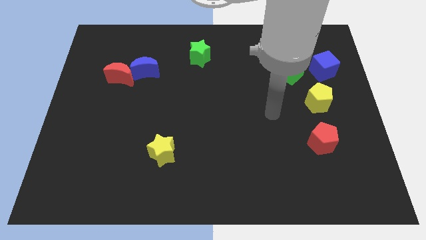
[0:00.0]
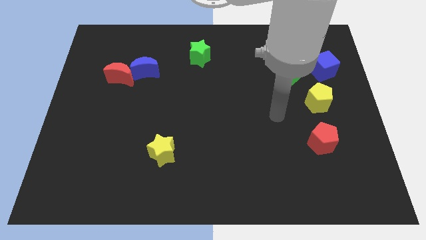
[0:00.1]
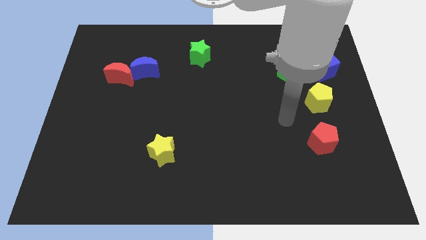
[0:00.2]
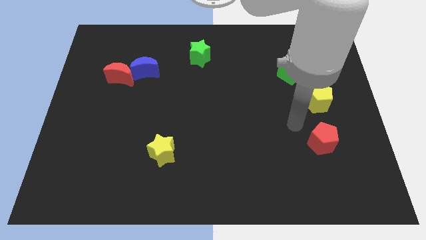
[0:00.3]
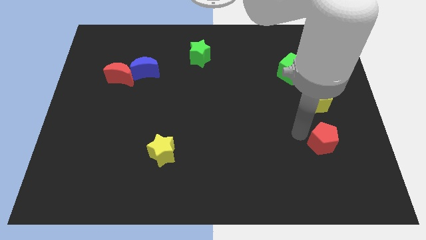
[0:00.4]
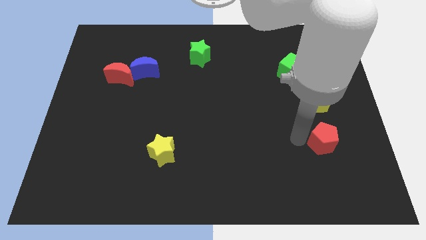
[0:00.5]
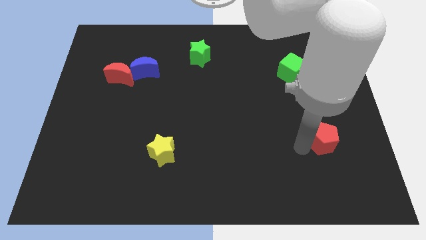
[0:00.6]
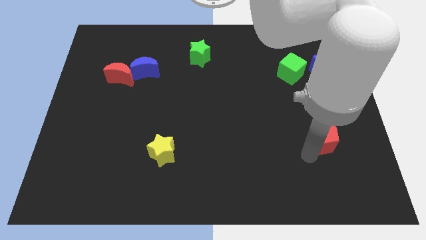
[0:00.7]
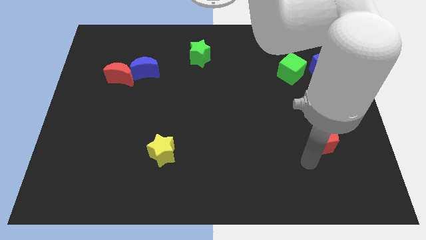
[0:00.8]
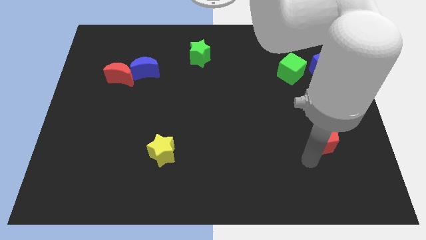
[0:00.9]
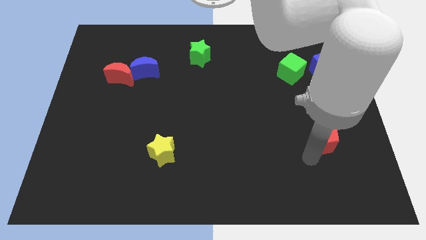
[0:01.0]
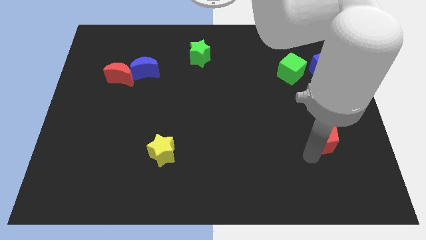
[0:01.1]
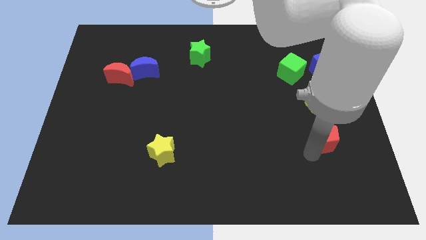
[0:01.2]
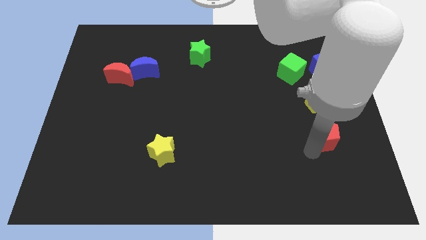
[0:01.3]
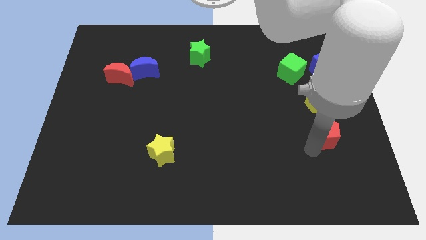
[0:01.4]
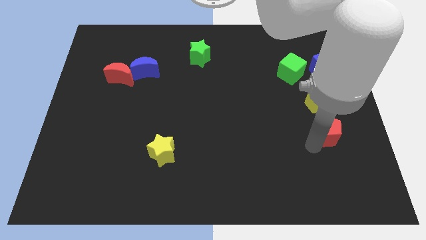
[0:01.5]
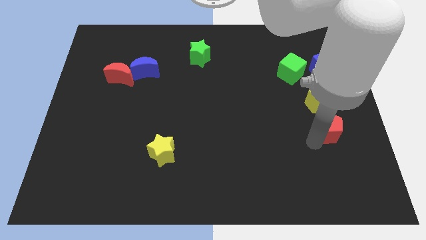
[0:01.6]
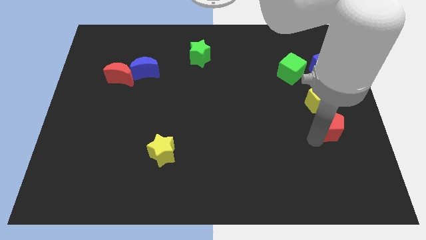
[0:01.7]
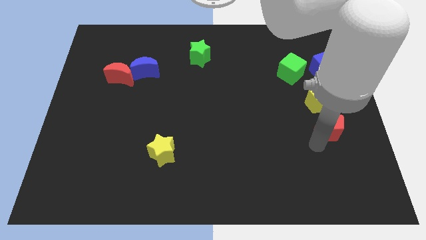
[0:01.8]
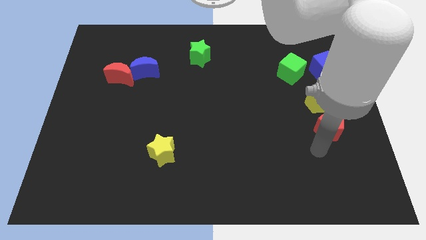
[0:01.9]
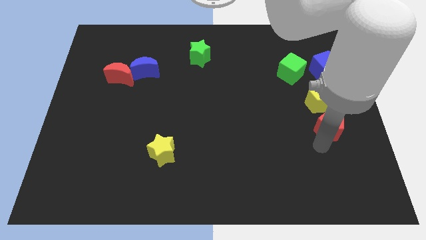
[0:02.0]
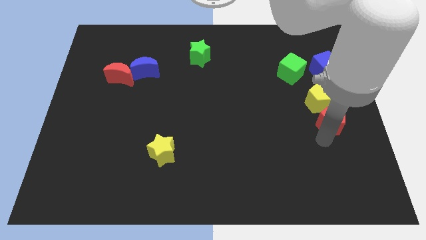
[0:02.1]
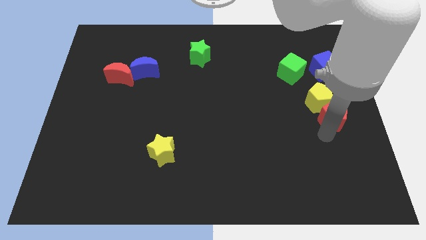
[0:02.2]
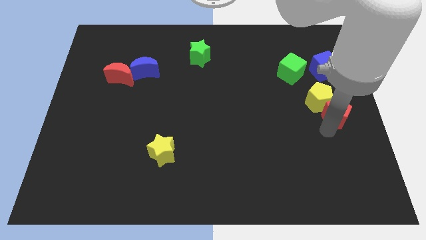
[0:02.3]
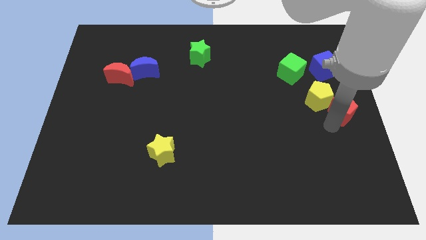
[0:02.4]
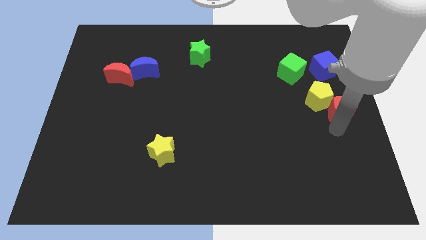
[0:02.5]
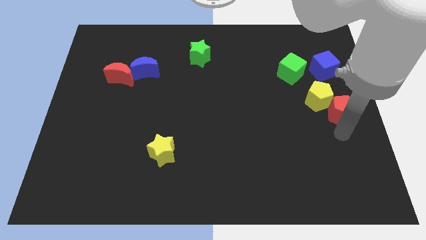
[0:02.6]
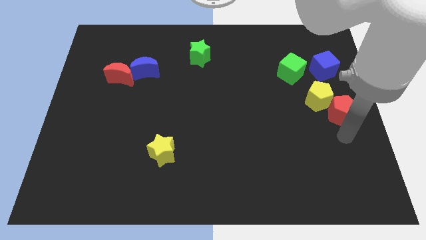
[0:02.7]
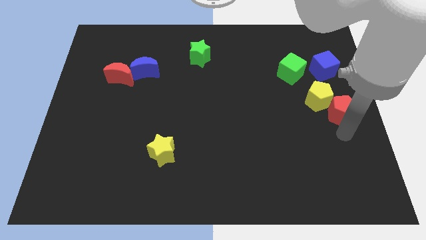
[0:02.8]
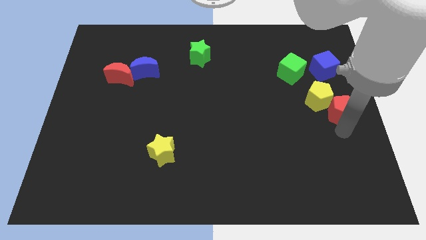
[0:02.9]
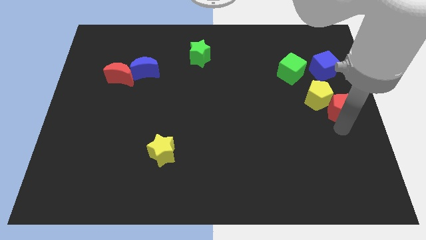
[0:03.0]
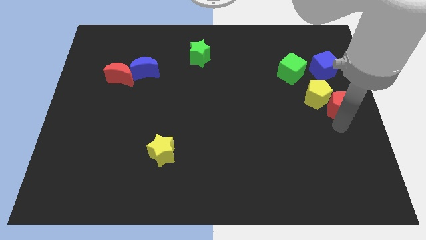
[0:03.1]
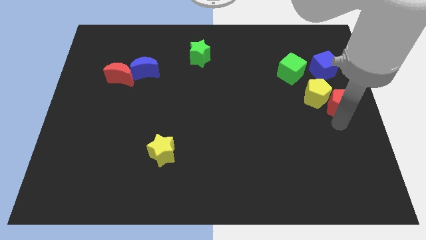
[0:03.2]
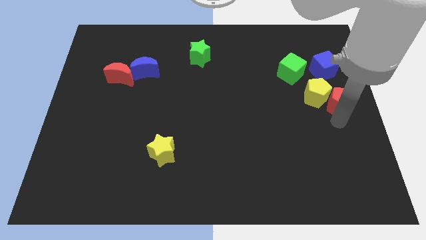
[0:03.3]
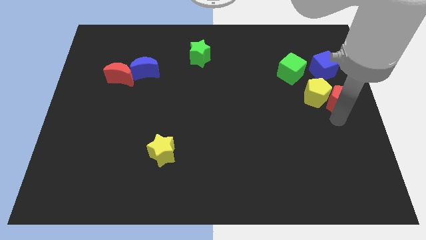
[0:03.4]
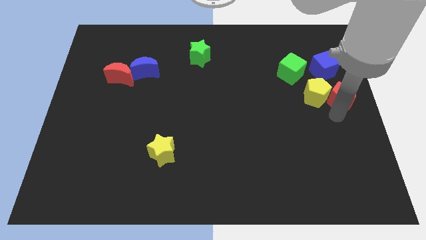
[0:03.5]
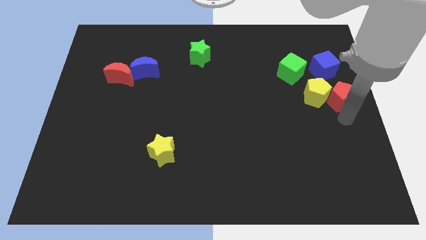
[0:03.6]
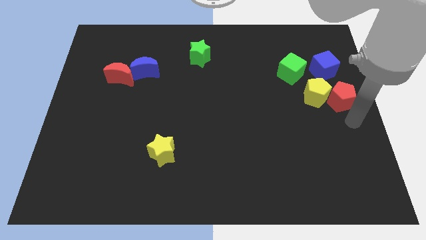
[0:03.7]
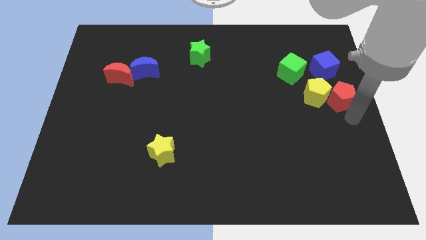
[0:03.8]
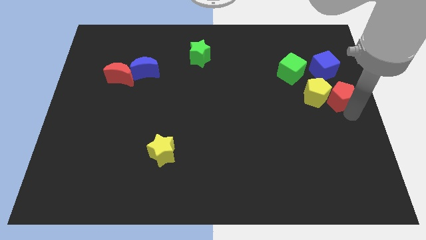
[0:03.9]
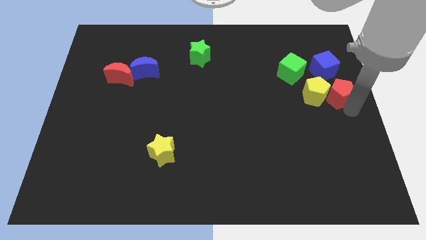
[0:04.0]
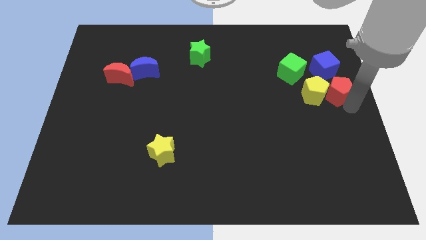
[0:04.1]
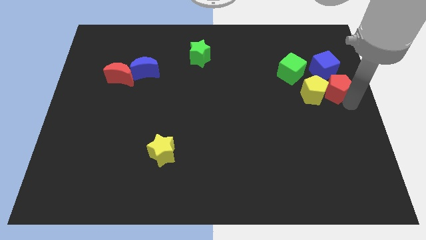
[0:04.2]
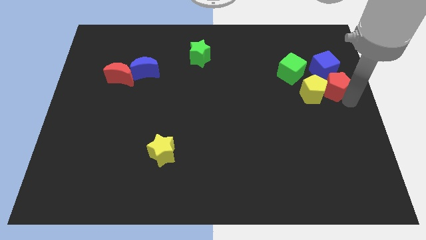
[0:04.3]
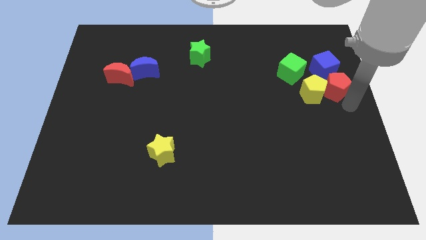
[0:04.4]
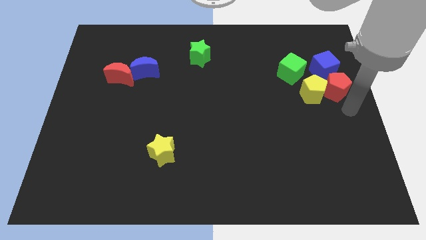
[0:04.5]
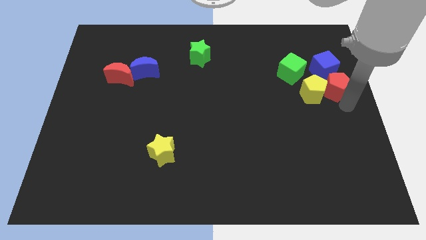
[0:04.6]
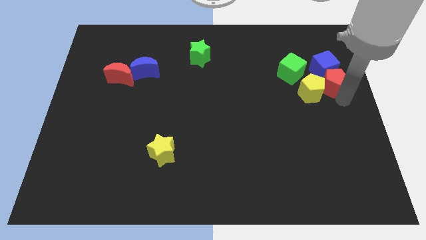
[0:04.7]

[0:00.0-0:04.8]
put the red pentagon to the blue cube

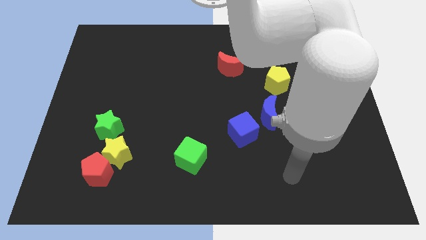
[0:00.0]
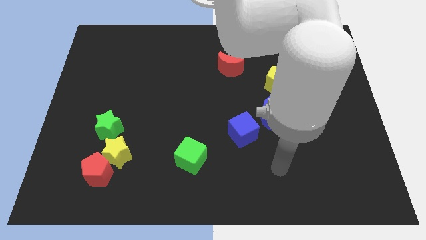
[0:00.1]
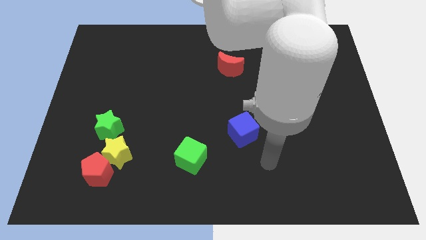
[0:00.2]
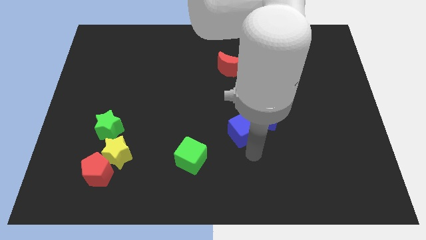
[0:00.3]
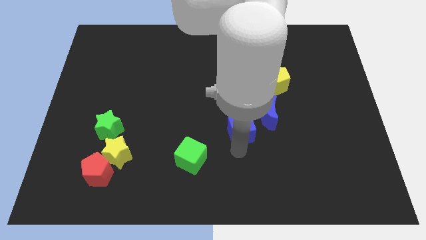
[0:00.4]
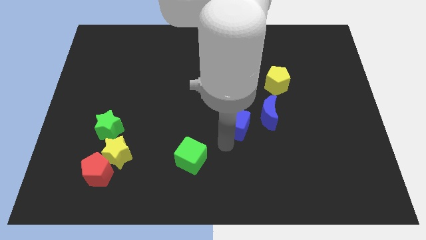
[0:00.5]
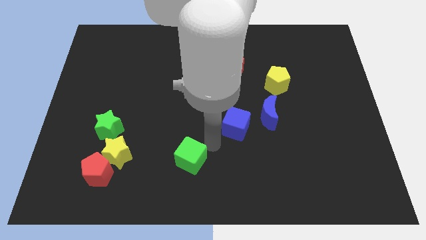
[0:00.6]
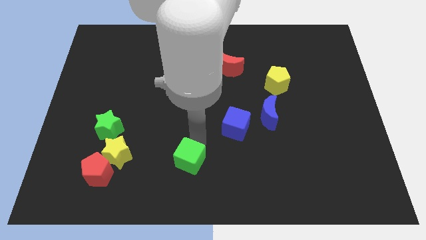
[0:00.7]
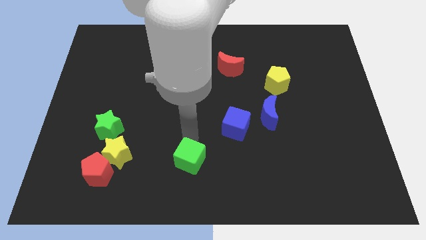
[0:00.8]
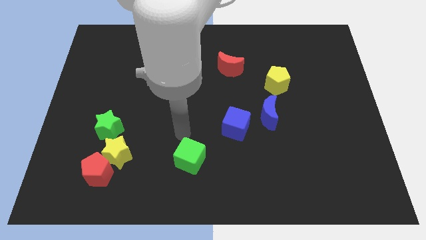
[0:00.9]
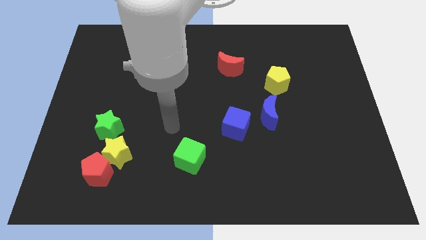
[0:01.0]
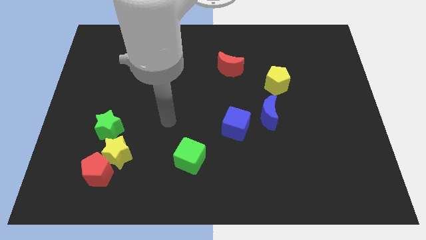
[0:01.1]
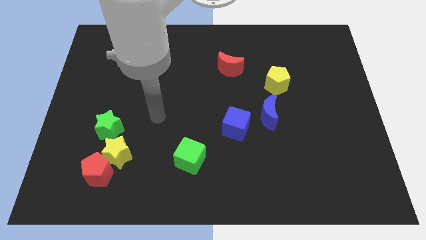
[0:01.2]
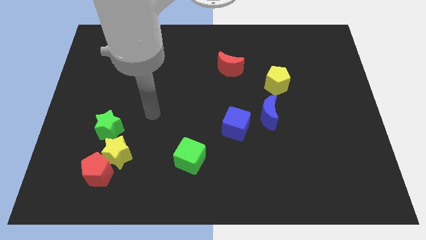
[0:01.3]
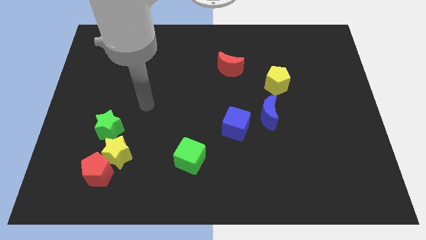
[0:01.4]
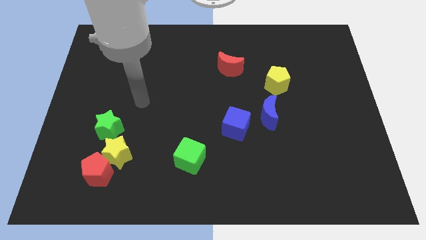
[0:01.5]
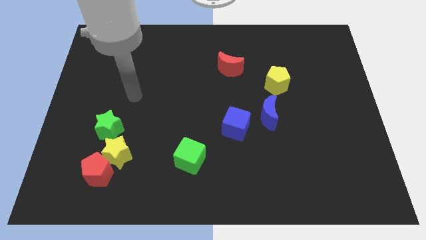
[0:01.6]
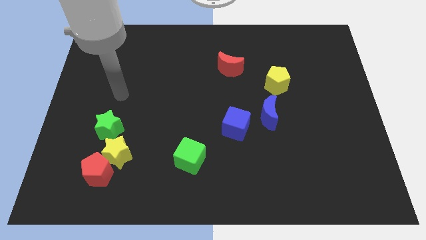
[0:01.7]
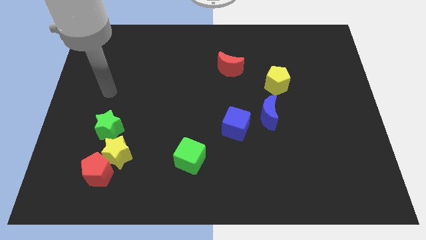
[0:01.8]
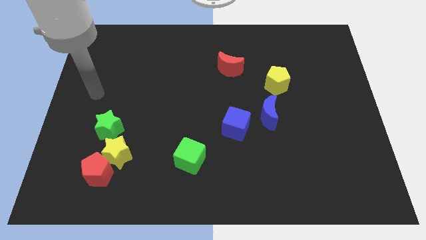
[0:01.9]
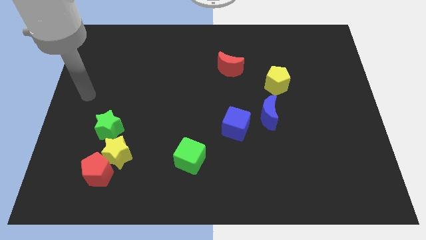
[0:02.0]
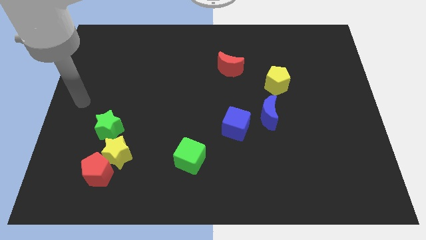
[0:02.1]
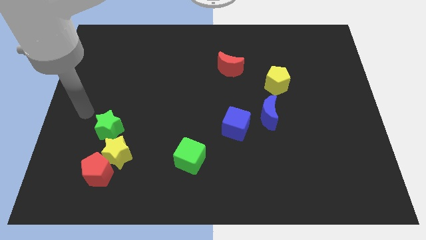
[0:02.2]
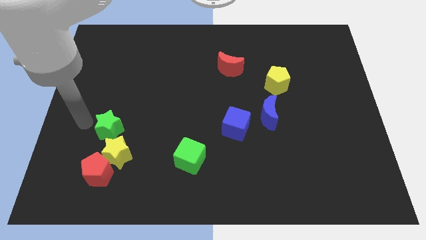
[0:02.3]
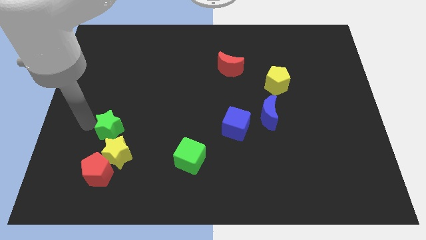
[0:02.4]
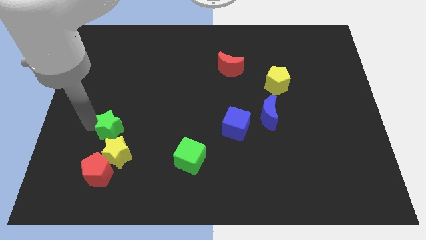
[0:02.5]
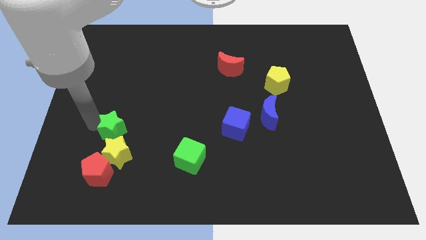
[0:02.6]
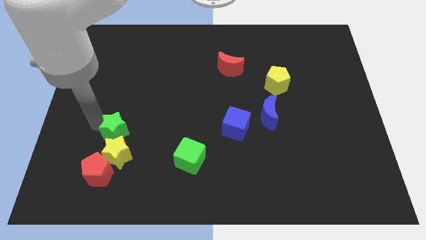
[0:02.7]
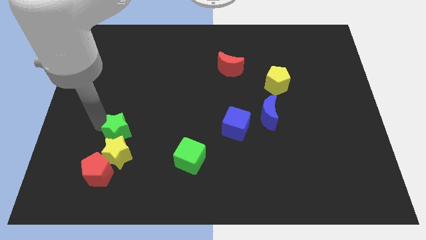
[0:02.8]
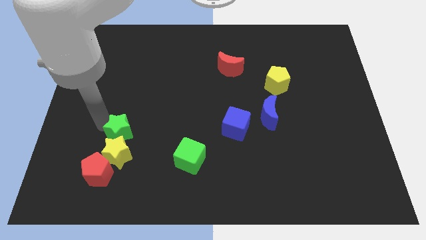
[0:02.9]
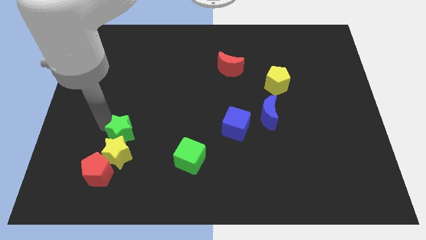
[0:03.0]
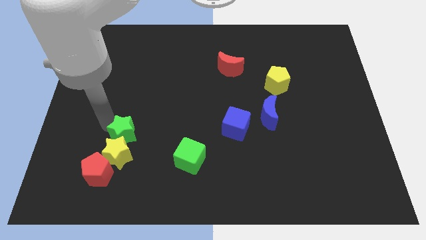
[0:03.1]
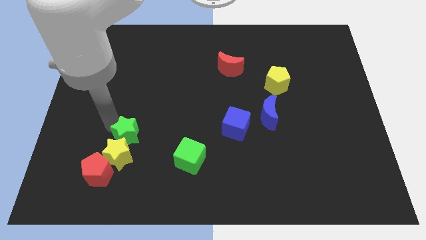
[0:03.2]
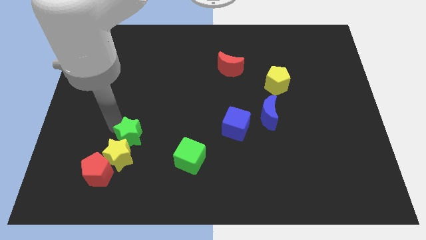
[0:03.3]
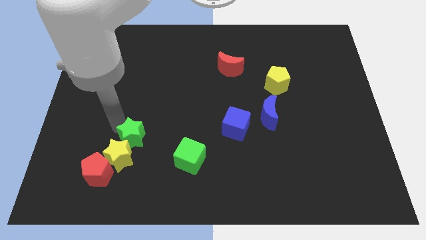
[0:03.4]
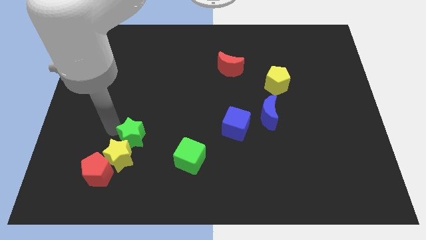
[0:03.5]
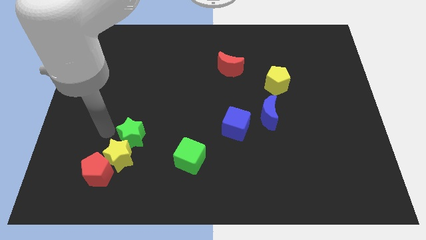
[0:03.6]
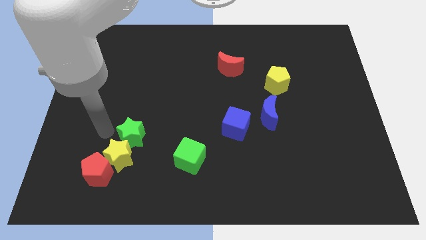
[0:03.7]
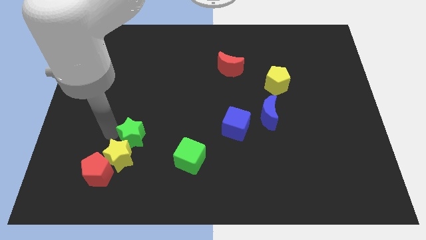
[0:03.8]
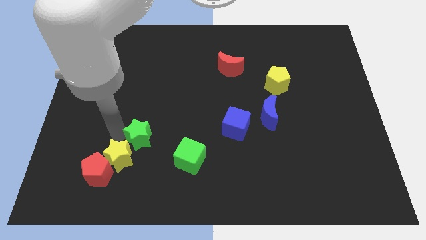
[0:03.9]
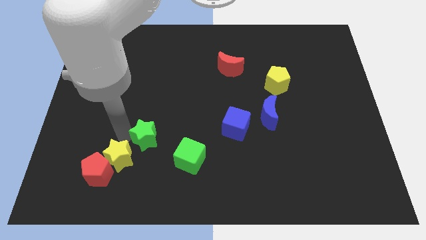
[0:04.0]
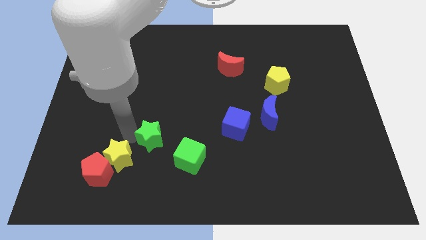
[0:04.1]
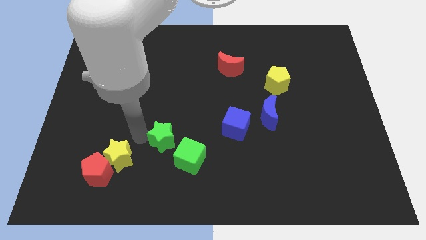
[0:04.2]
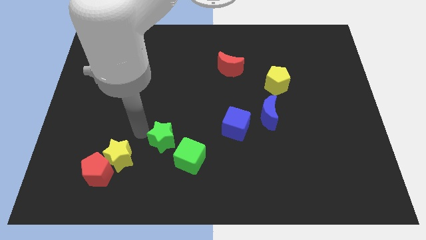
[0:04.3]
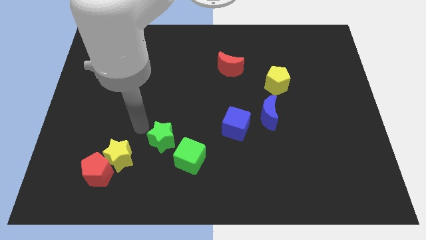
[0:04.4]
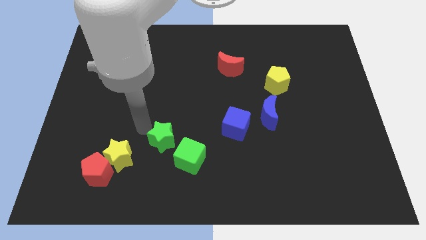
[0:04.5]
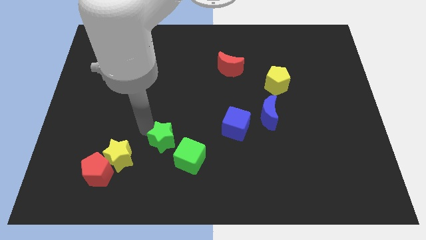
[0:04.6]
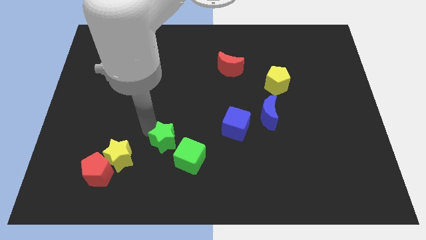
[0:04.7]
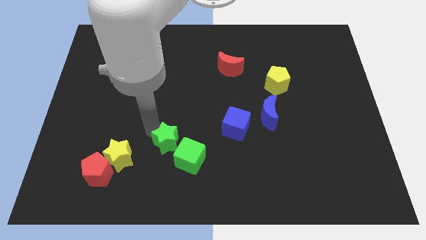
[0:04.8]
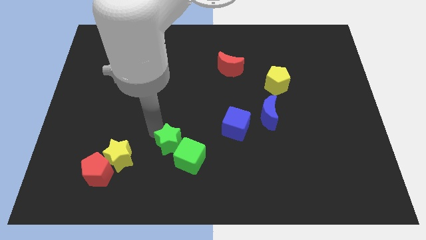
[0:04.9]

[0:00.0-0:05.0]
push the green star close to the green cube
